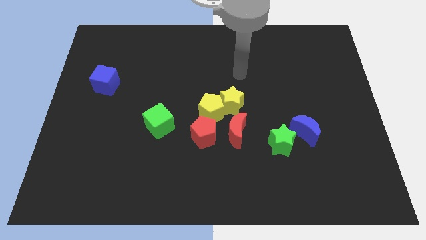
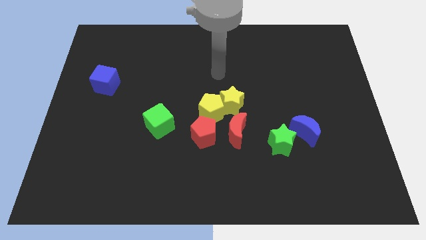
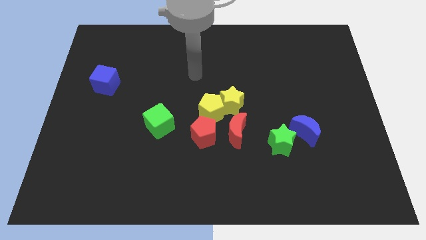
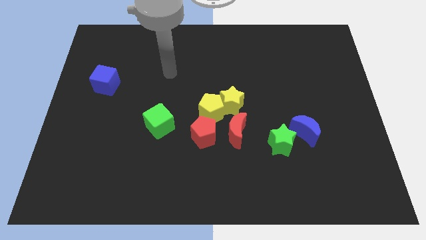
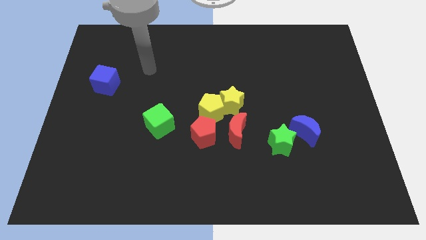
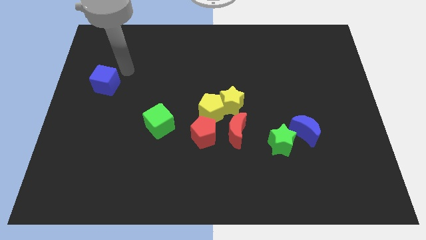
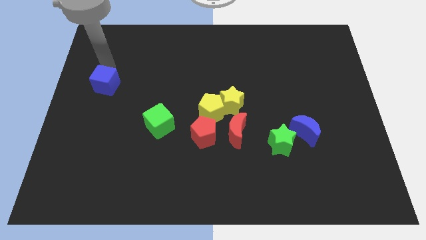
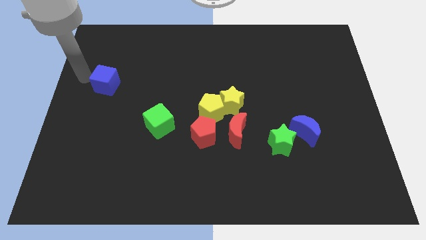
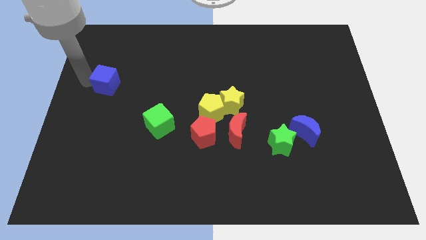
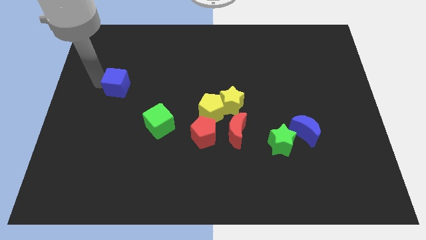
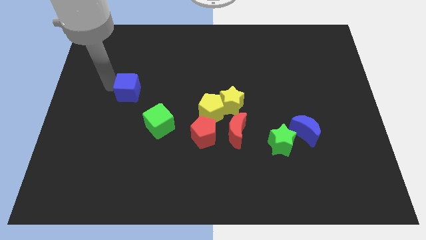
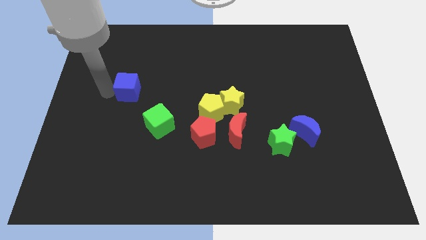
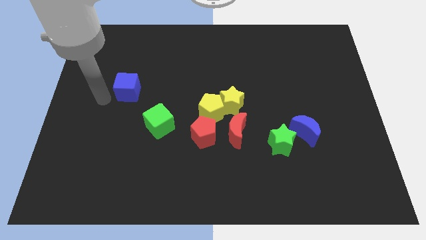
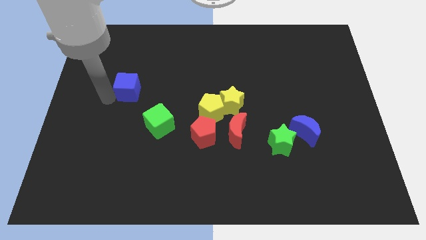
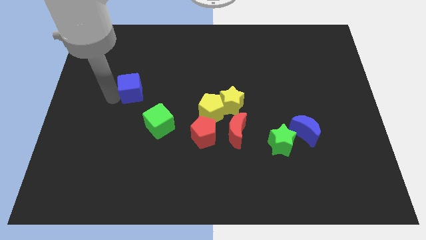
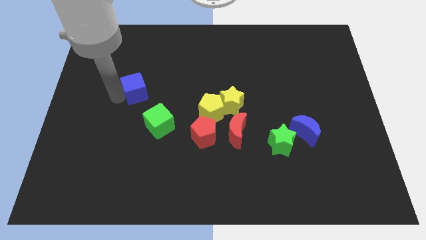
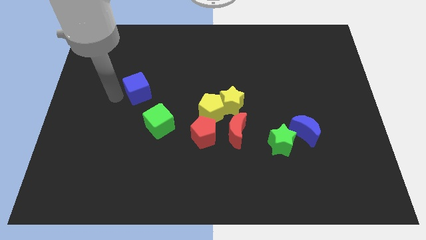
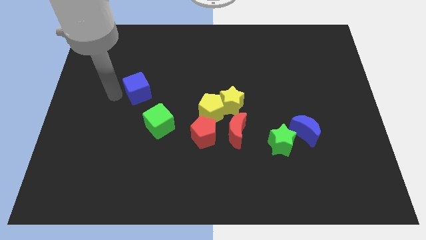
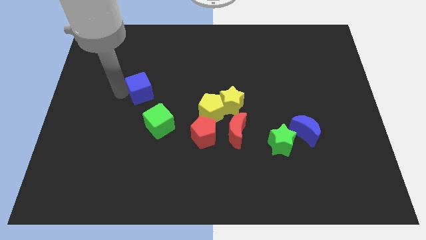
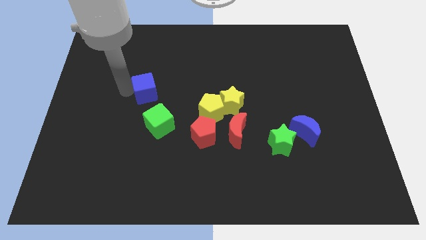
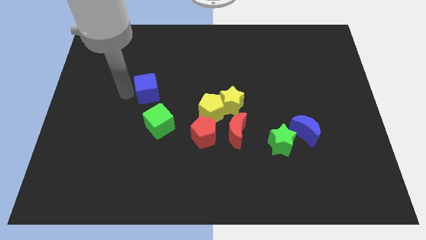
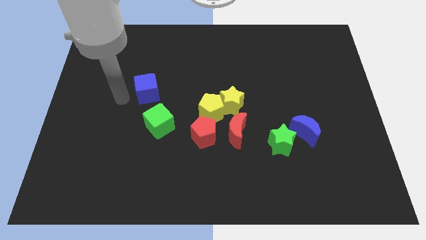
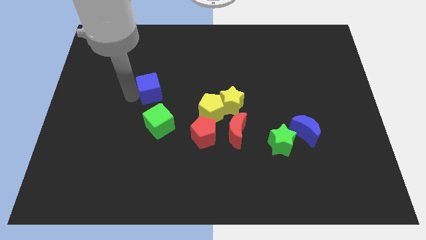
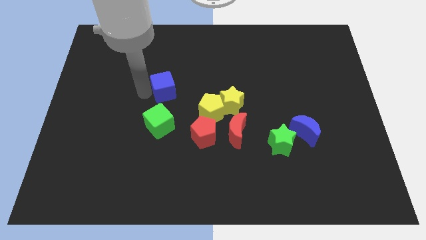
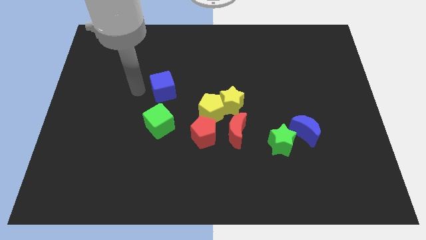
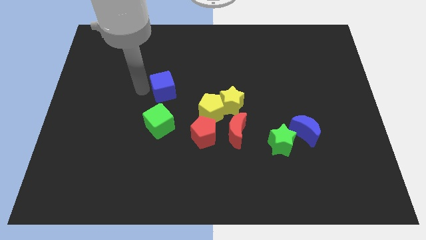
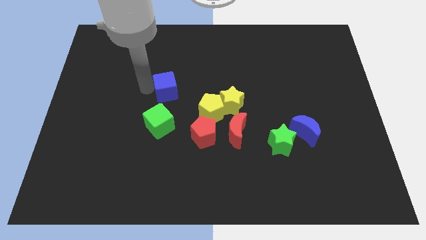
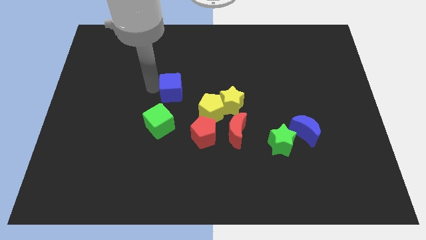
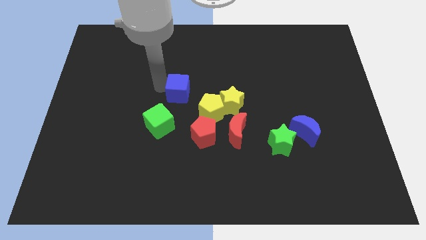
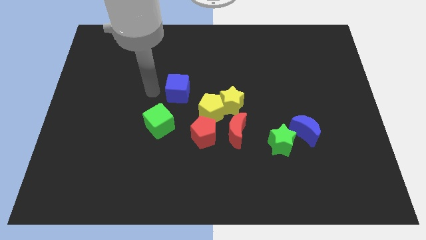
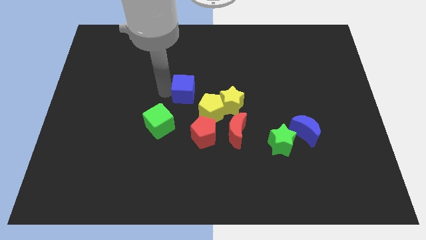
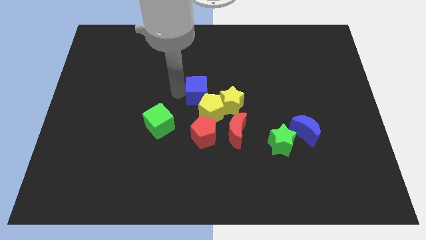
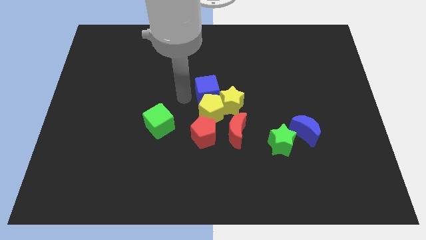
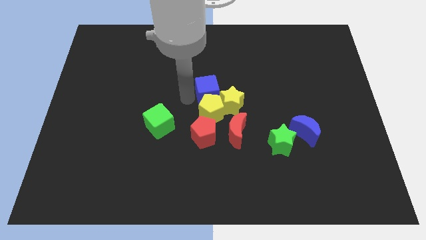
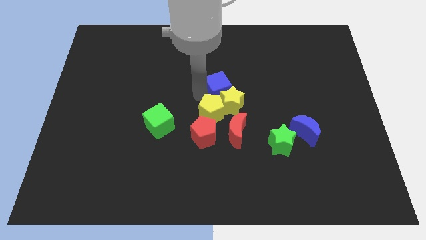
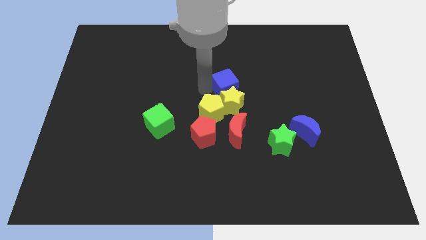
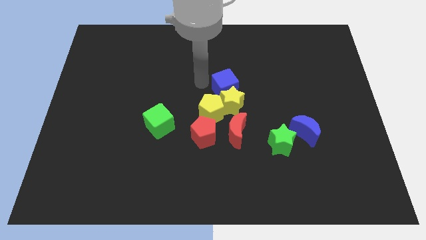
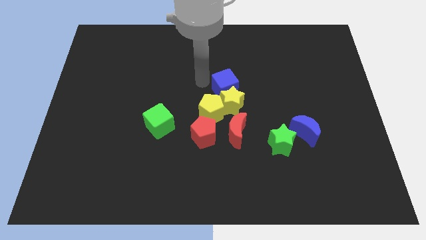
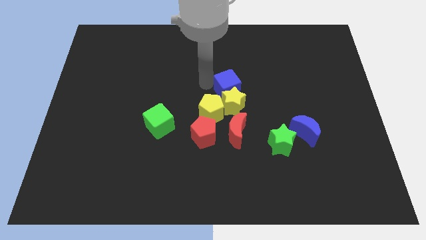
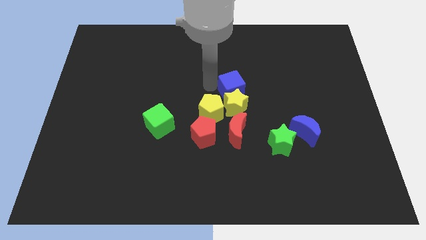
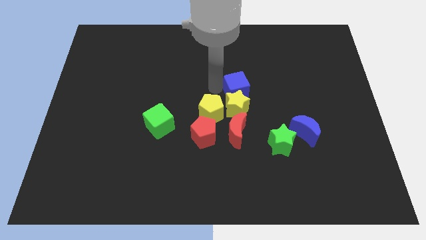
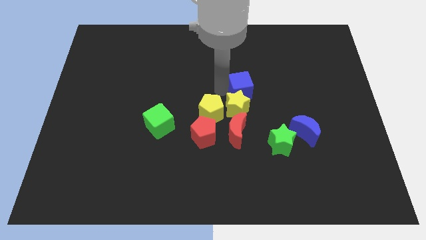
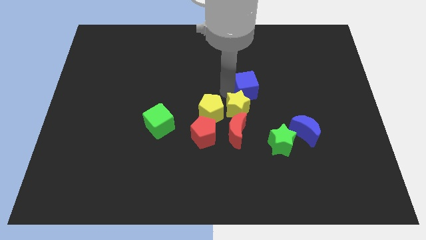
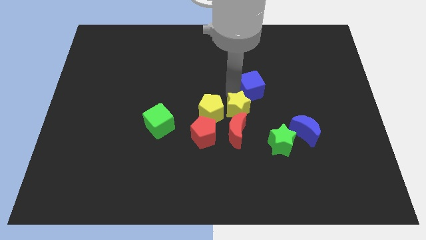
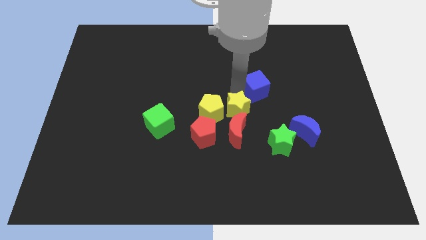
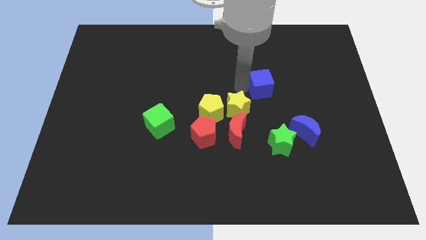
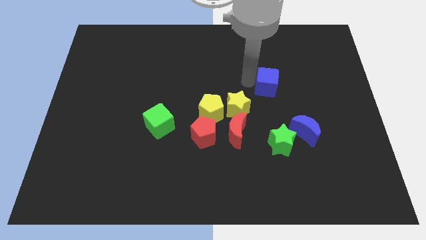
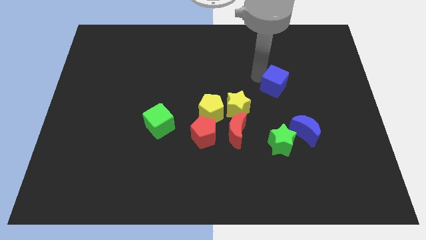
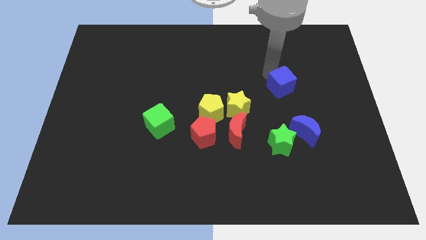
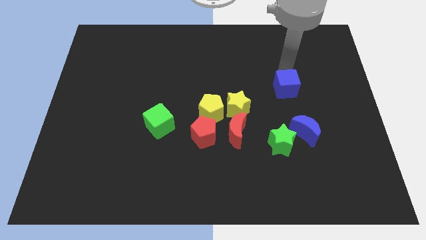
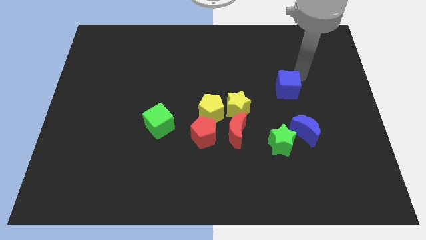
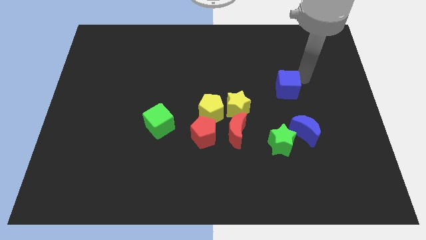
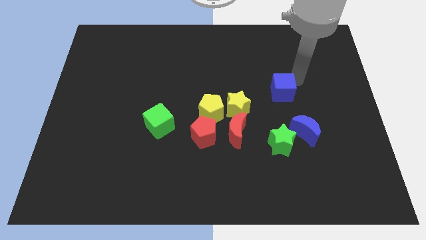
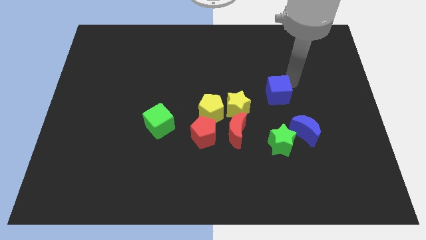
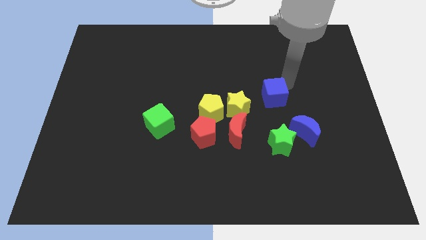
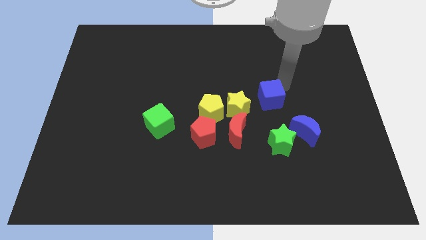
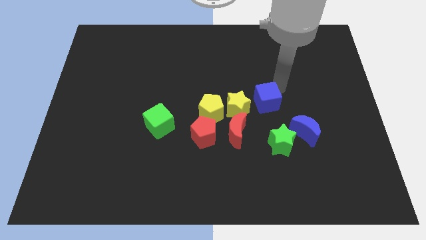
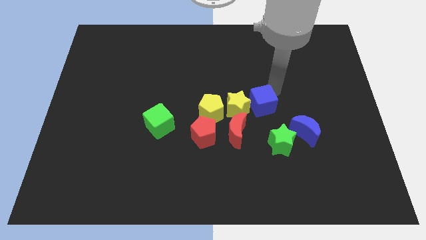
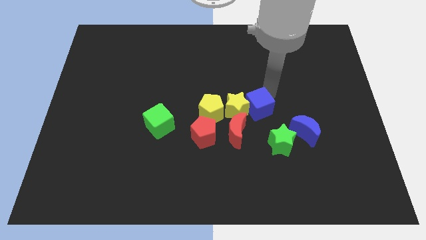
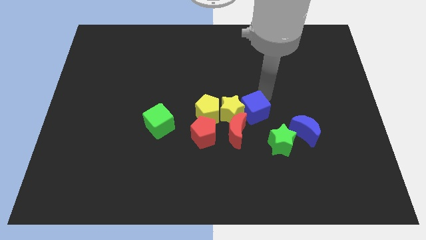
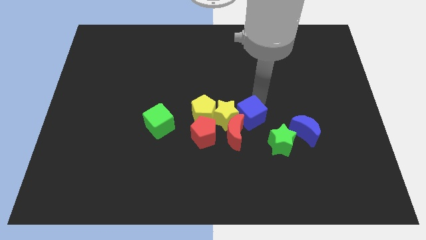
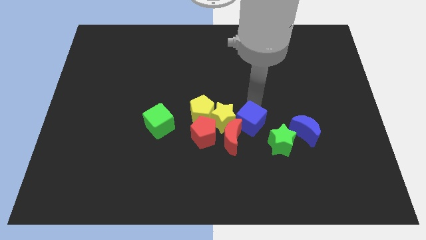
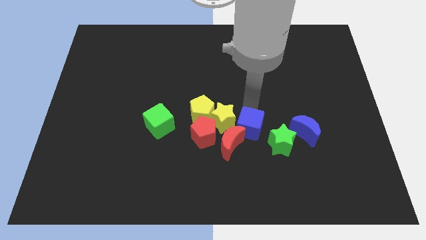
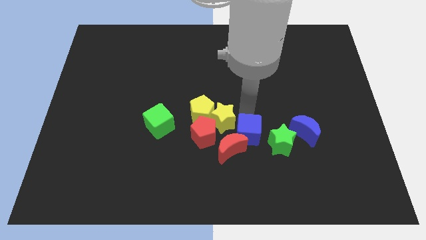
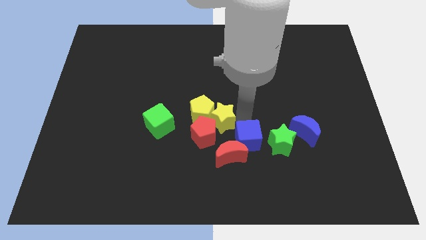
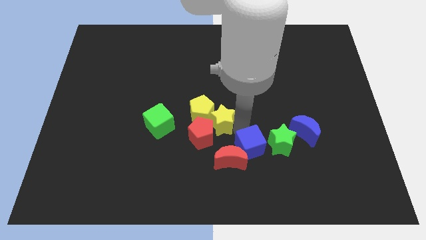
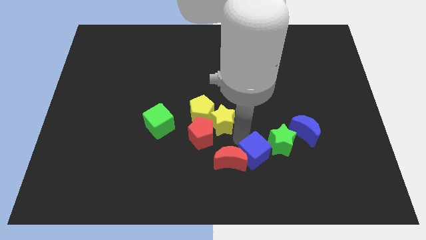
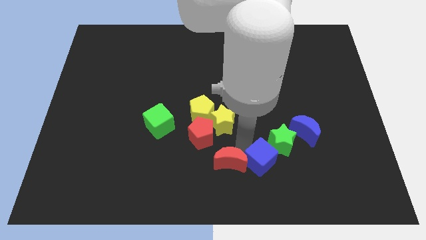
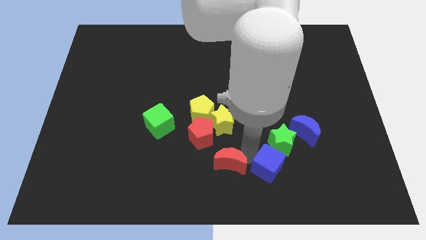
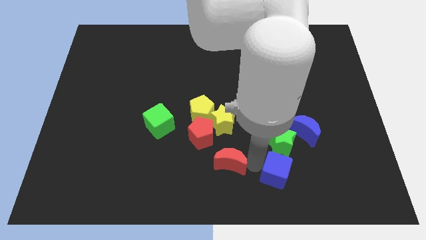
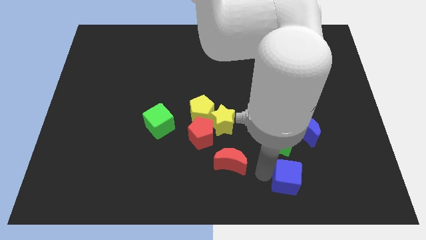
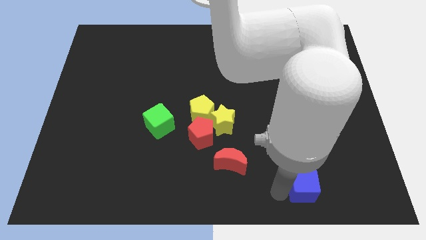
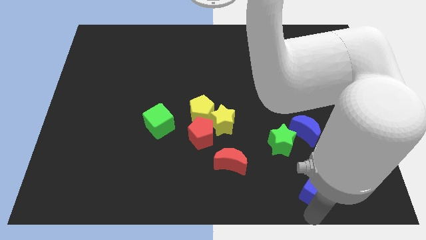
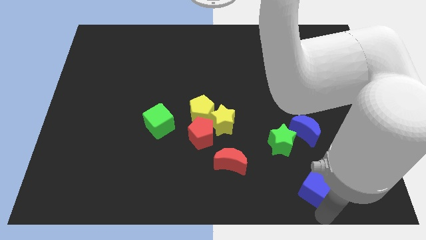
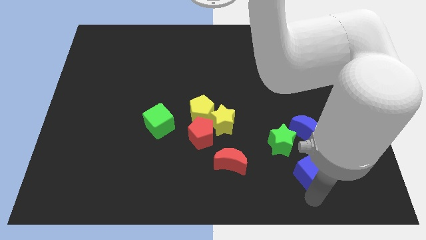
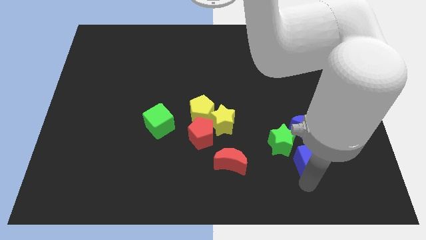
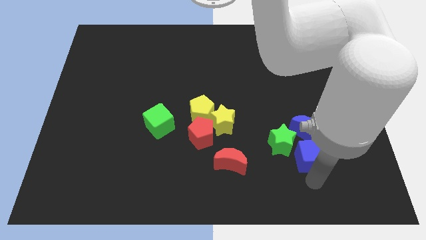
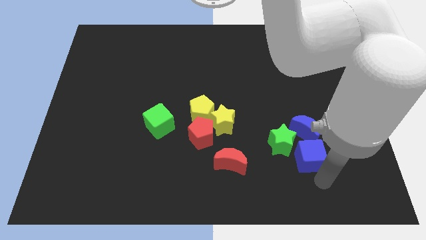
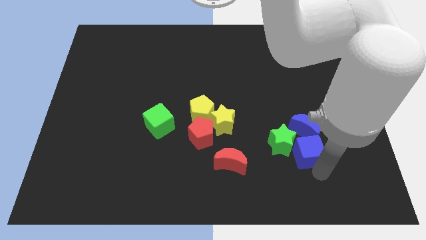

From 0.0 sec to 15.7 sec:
move the blue cube to the blue moon
